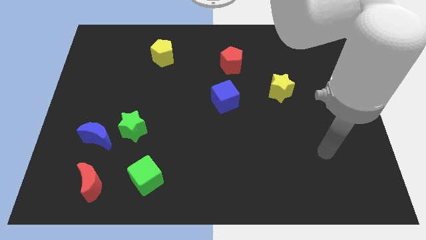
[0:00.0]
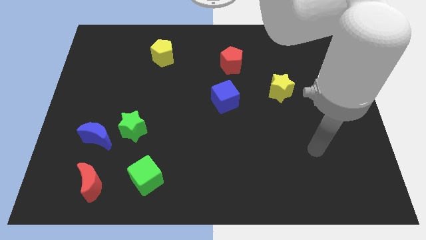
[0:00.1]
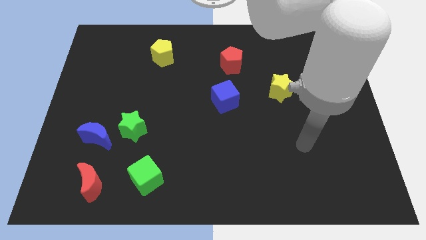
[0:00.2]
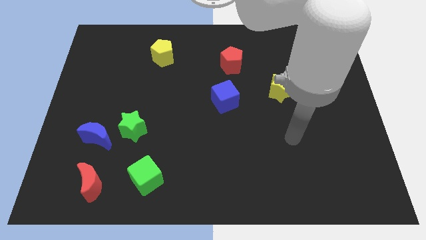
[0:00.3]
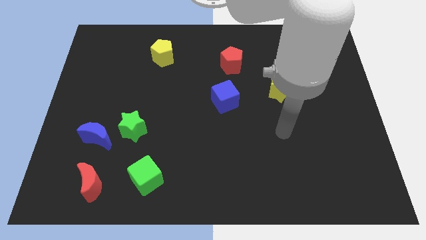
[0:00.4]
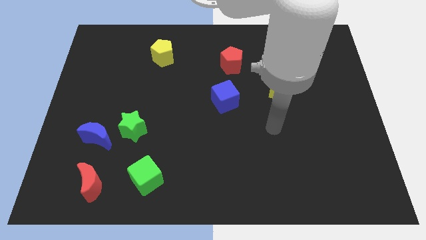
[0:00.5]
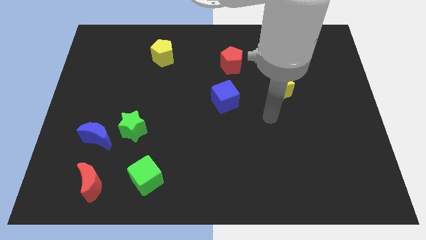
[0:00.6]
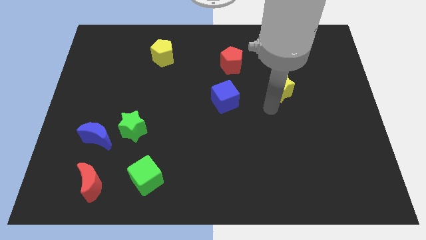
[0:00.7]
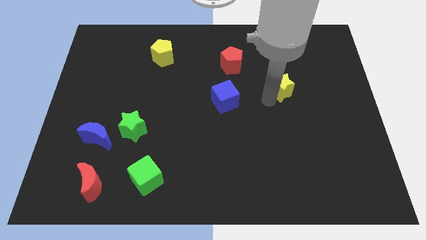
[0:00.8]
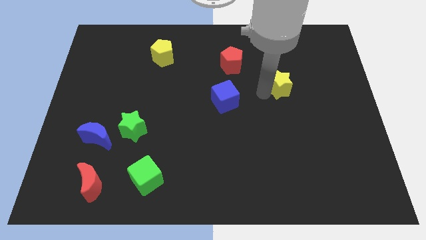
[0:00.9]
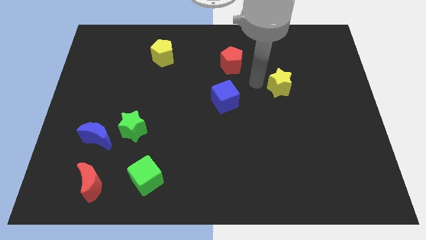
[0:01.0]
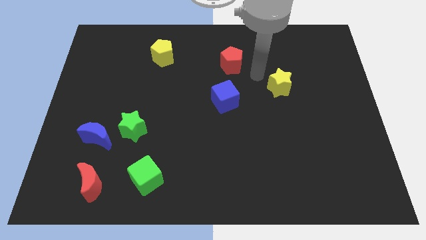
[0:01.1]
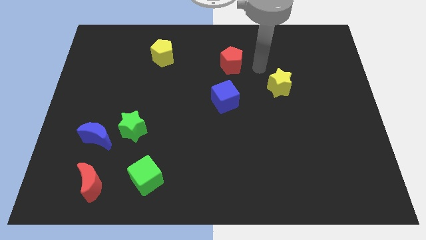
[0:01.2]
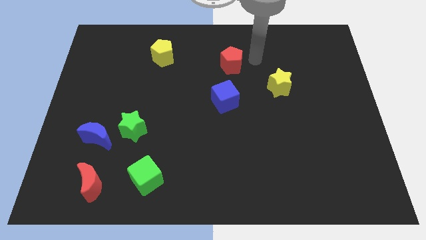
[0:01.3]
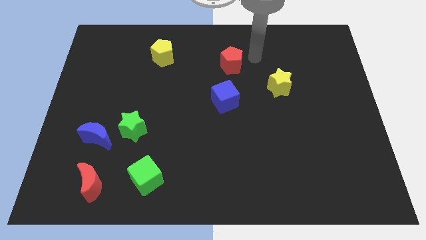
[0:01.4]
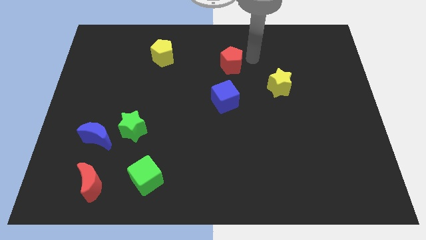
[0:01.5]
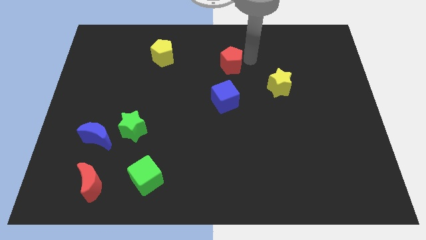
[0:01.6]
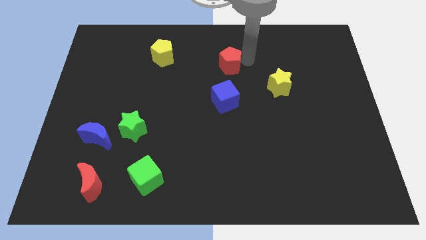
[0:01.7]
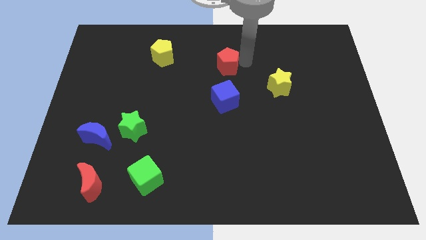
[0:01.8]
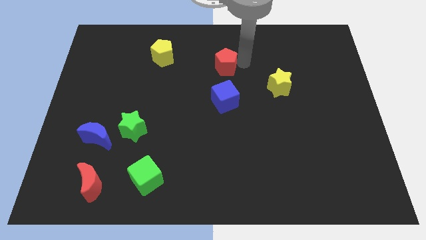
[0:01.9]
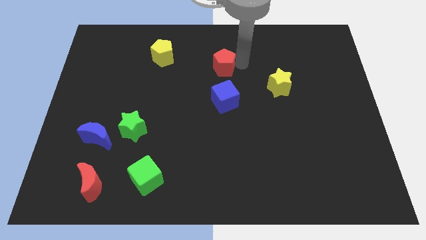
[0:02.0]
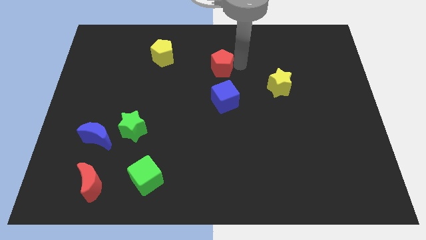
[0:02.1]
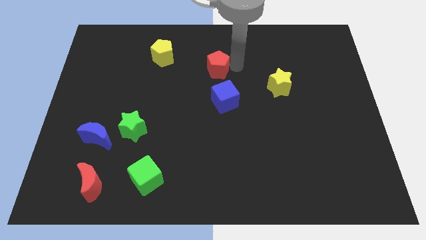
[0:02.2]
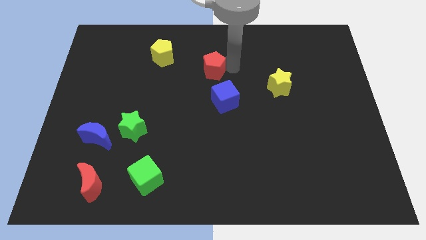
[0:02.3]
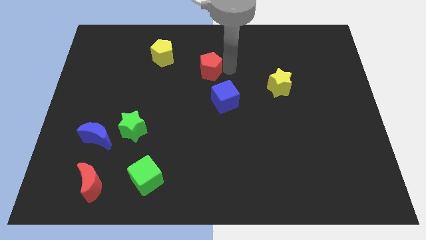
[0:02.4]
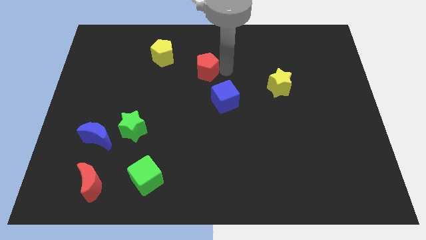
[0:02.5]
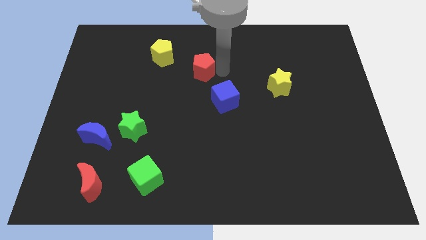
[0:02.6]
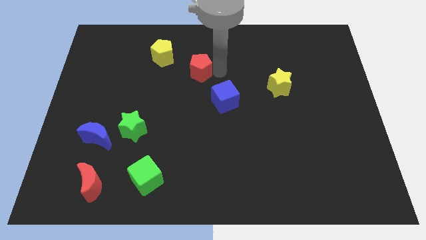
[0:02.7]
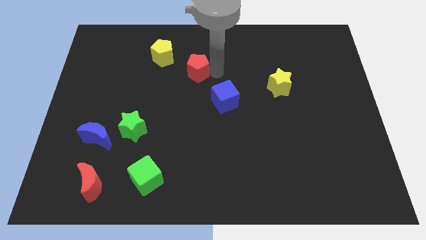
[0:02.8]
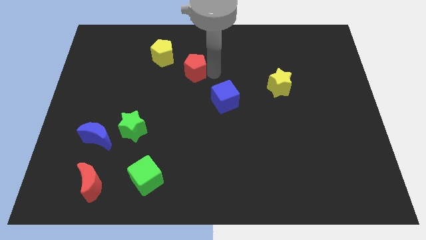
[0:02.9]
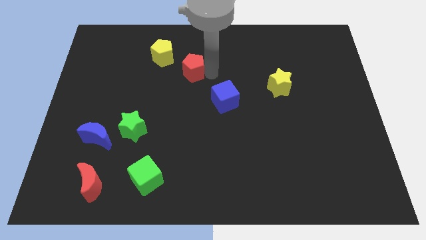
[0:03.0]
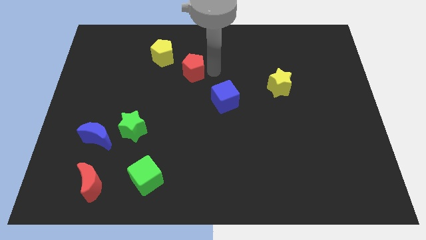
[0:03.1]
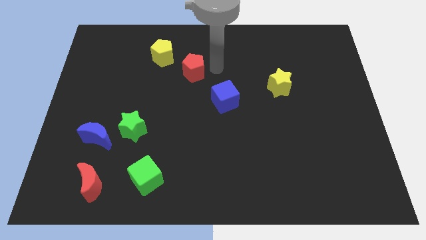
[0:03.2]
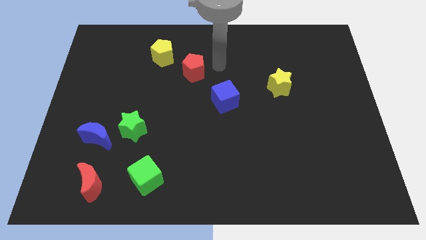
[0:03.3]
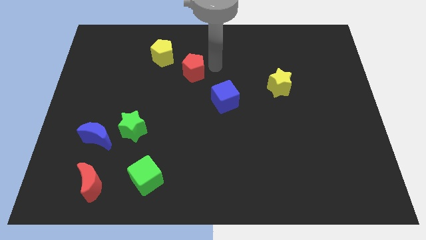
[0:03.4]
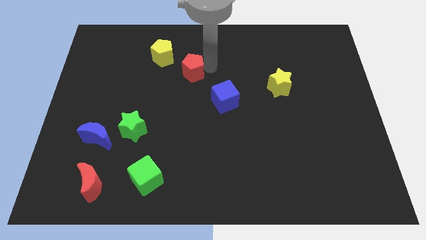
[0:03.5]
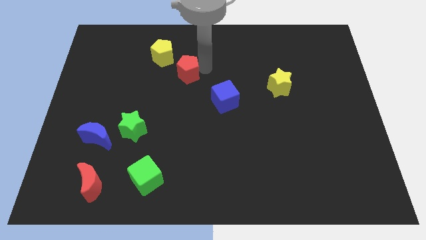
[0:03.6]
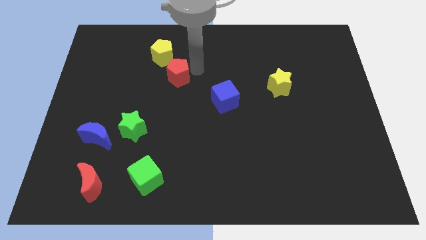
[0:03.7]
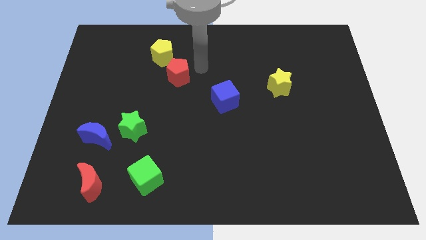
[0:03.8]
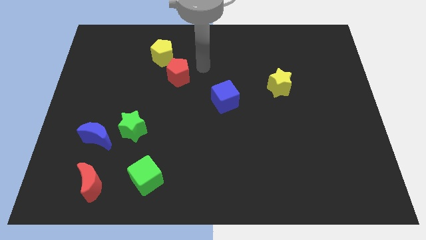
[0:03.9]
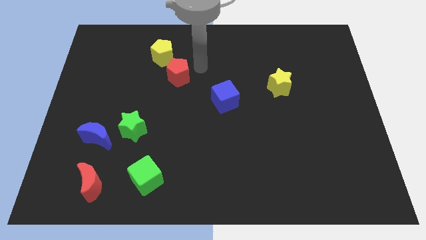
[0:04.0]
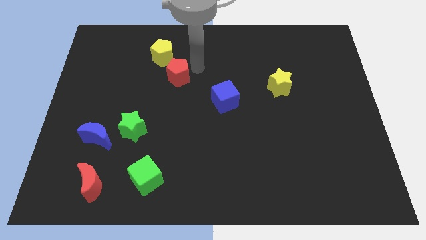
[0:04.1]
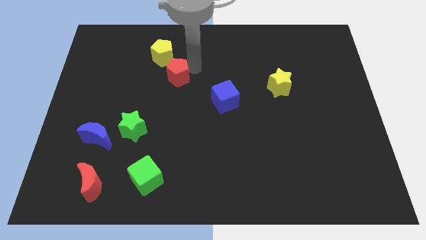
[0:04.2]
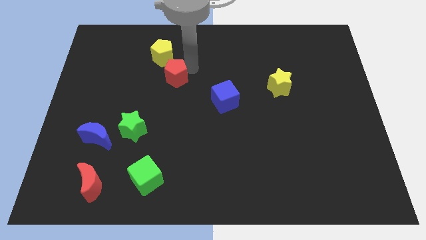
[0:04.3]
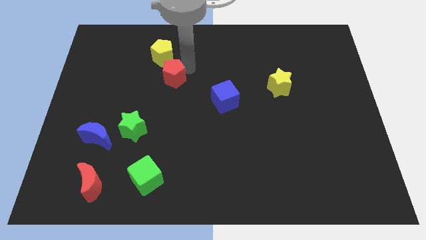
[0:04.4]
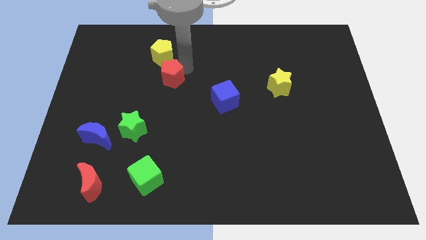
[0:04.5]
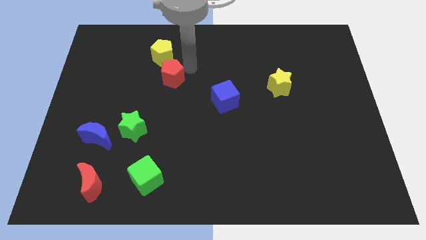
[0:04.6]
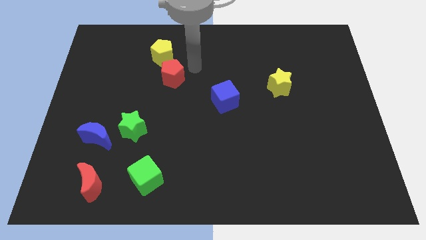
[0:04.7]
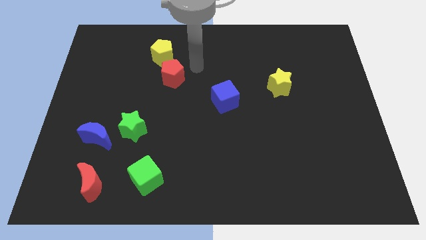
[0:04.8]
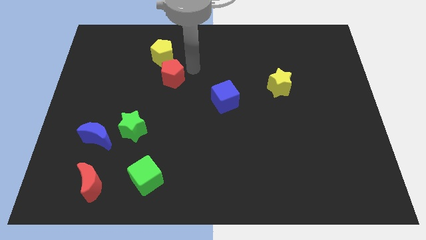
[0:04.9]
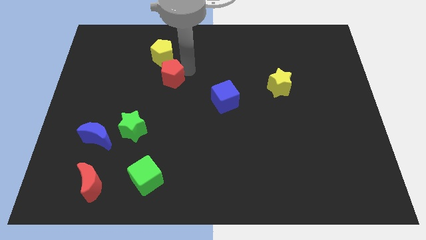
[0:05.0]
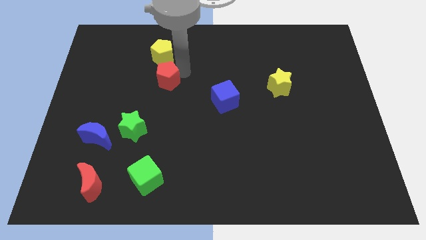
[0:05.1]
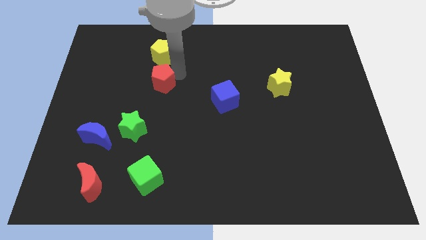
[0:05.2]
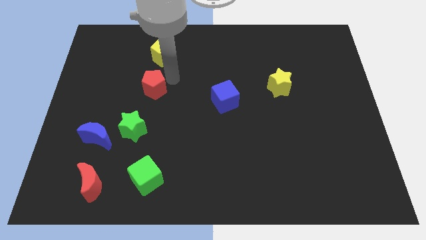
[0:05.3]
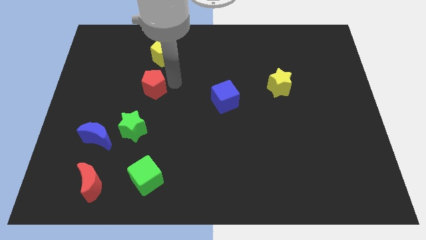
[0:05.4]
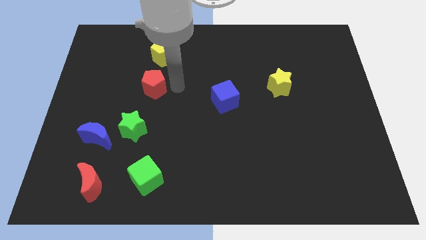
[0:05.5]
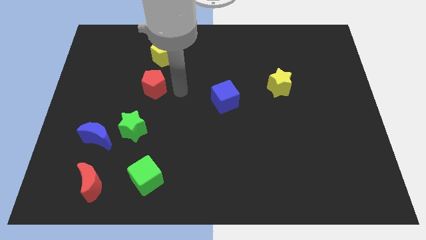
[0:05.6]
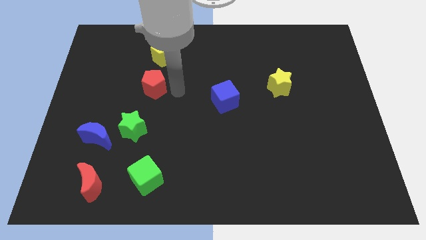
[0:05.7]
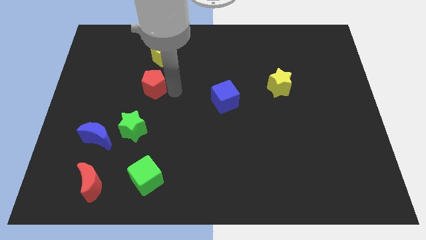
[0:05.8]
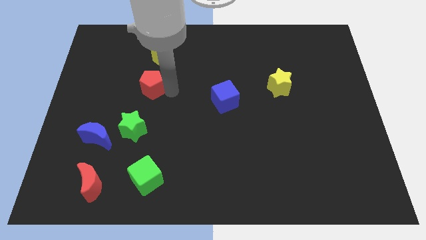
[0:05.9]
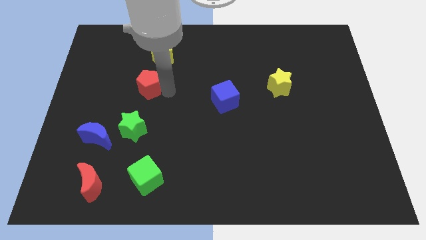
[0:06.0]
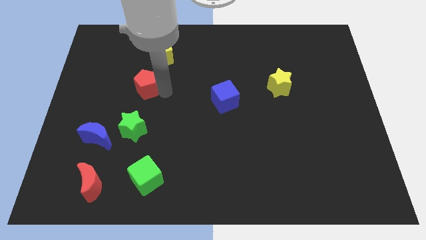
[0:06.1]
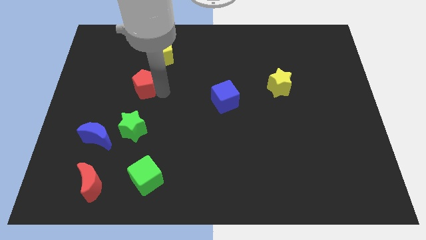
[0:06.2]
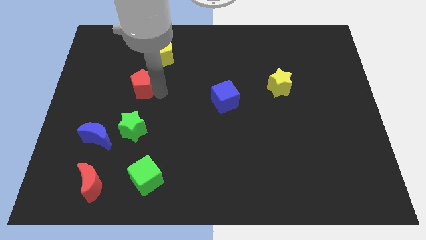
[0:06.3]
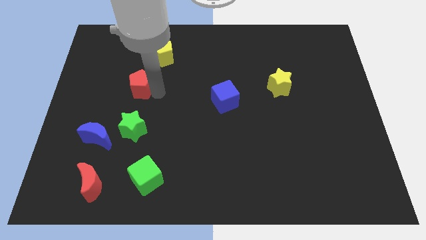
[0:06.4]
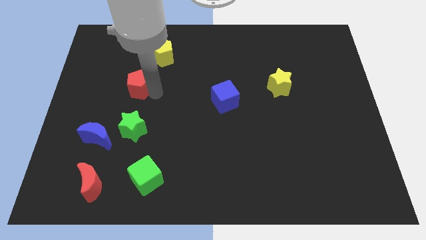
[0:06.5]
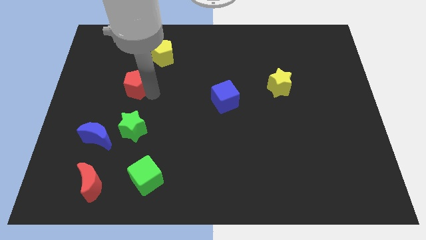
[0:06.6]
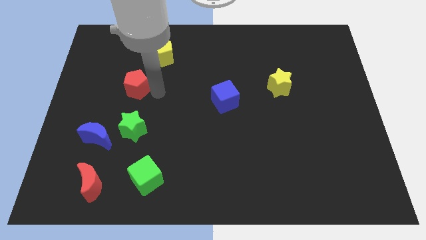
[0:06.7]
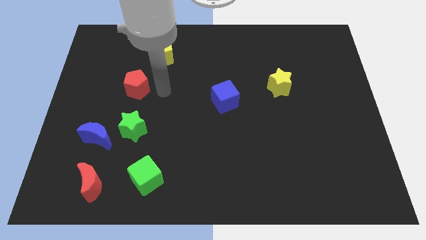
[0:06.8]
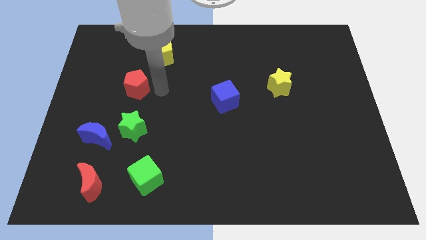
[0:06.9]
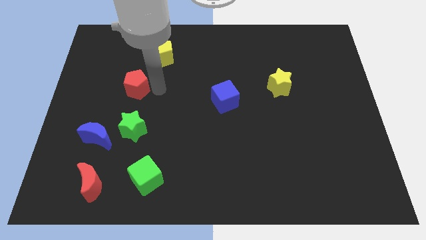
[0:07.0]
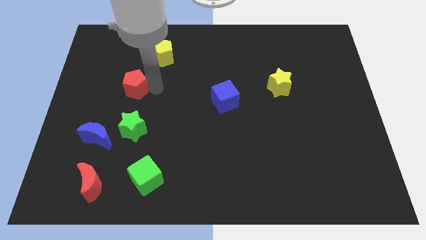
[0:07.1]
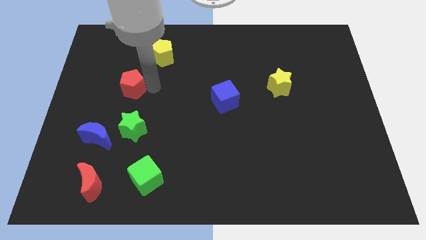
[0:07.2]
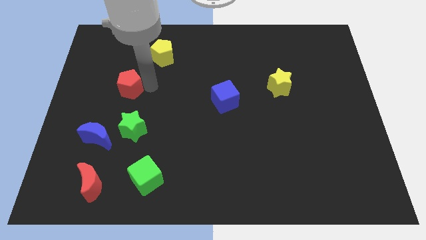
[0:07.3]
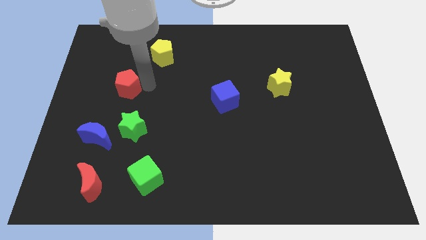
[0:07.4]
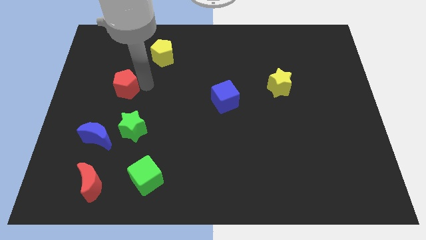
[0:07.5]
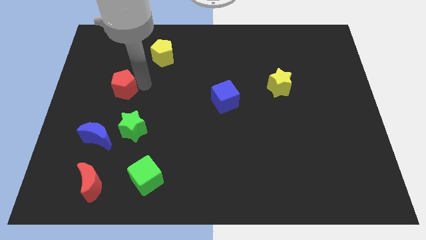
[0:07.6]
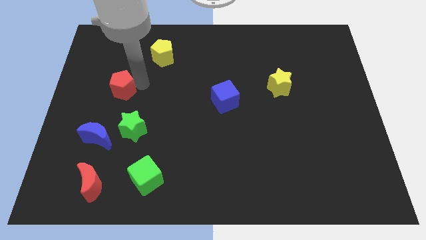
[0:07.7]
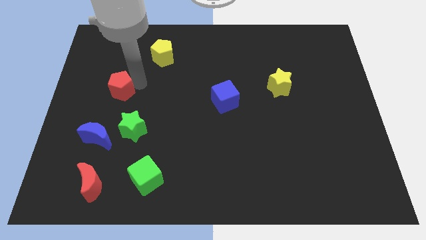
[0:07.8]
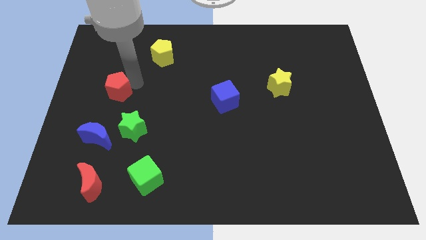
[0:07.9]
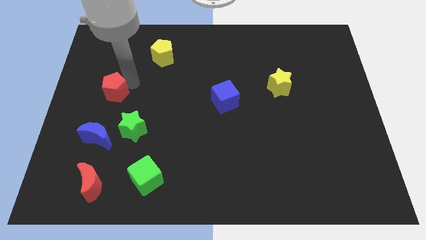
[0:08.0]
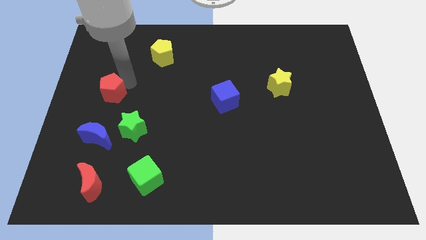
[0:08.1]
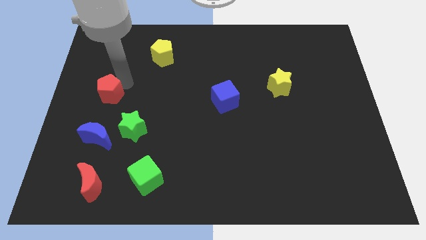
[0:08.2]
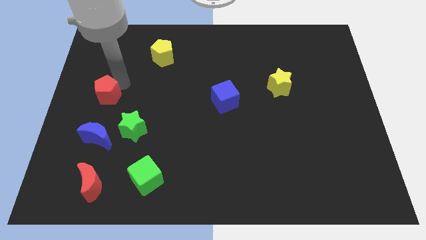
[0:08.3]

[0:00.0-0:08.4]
push the red pentagon to the left side of the board
